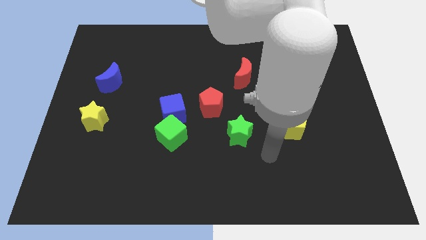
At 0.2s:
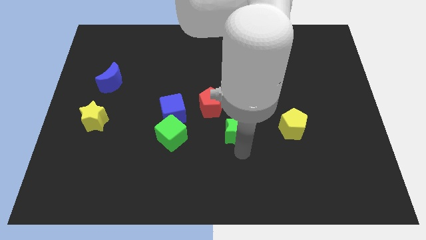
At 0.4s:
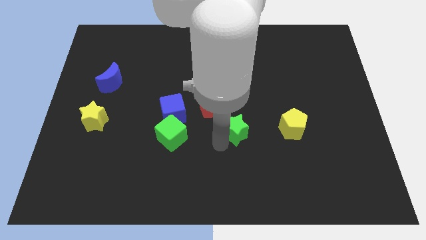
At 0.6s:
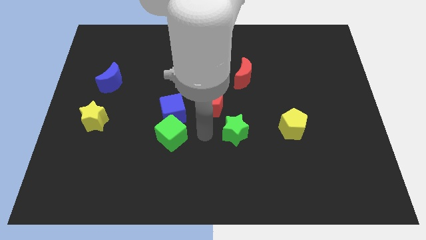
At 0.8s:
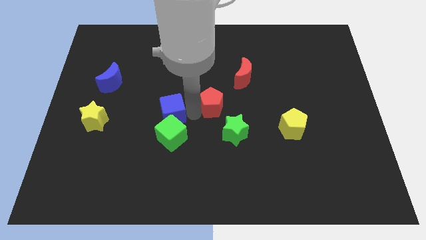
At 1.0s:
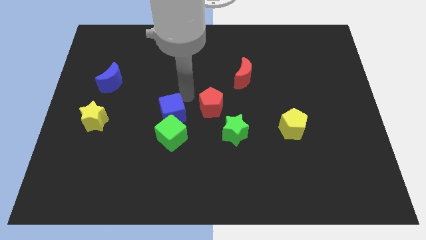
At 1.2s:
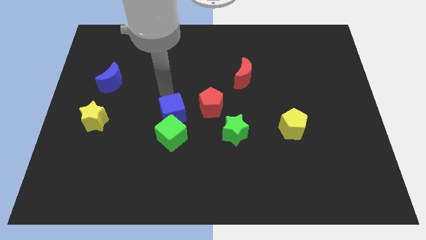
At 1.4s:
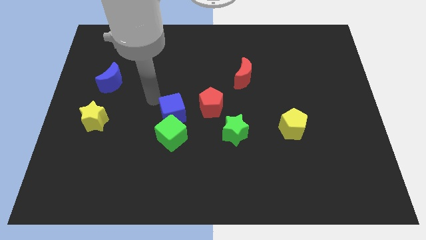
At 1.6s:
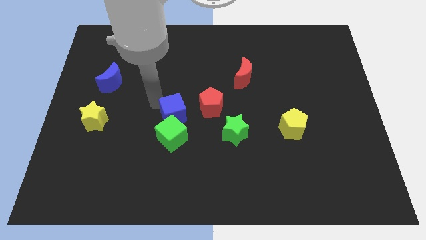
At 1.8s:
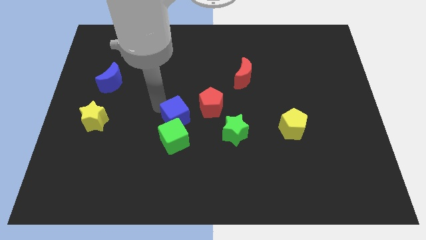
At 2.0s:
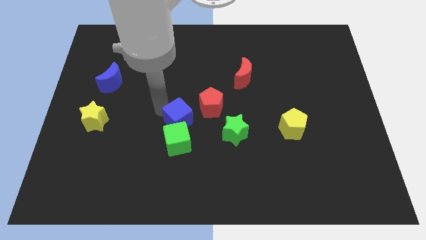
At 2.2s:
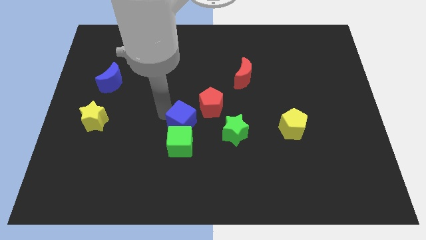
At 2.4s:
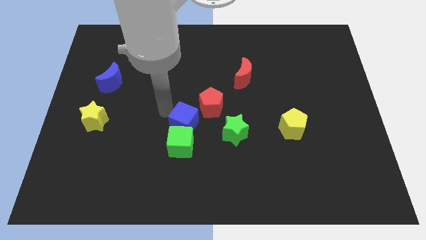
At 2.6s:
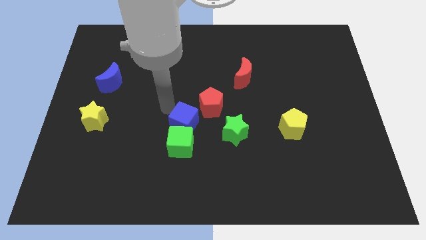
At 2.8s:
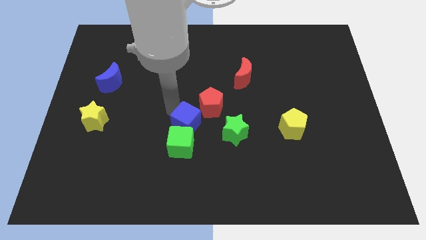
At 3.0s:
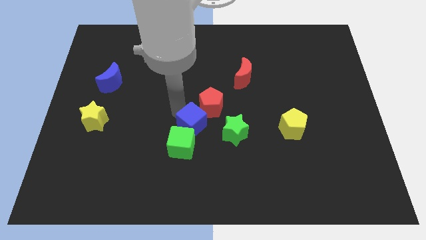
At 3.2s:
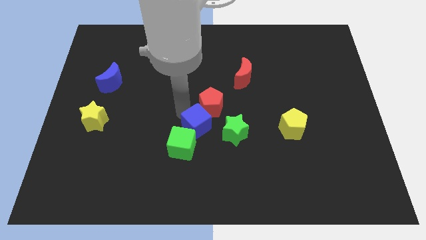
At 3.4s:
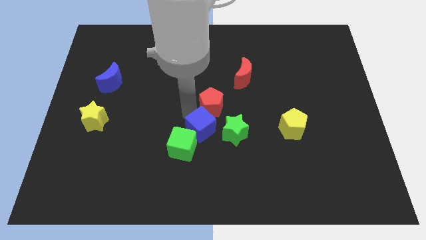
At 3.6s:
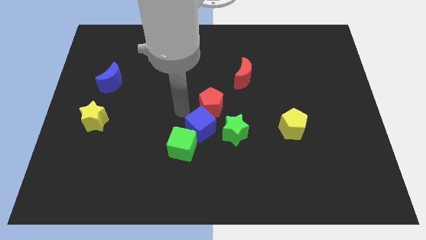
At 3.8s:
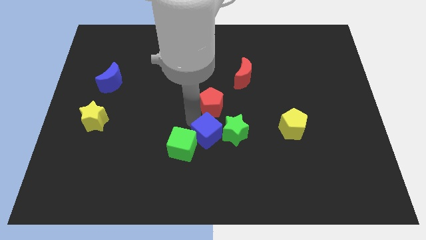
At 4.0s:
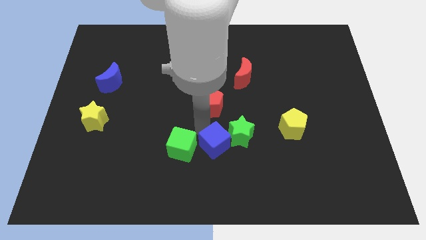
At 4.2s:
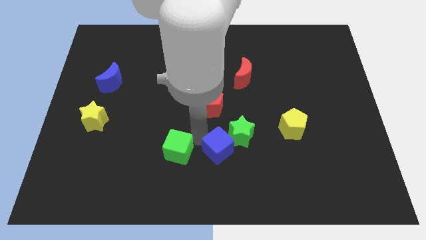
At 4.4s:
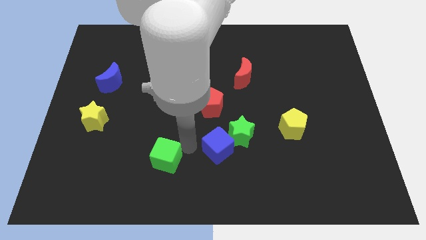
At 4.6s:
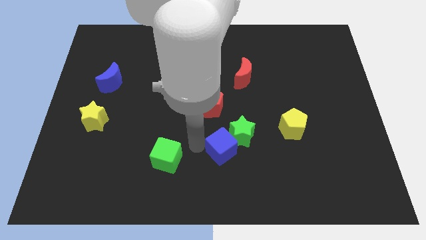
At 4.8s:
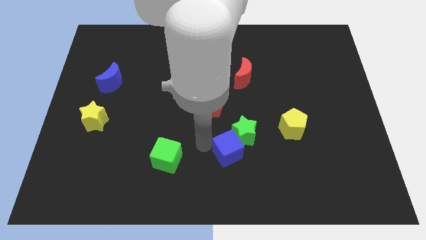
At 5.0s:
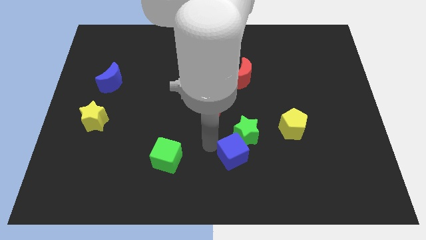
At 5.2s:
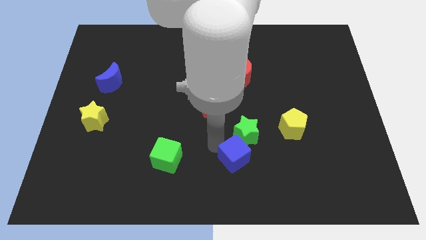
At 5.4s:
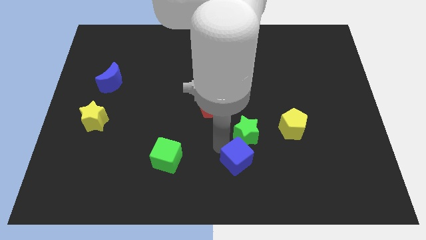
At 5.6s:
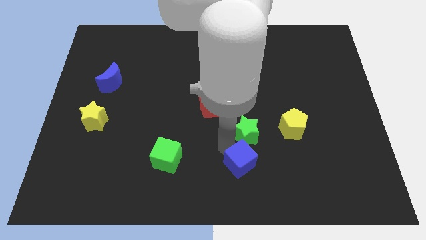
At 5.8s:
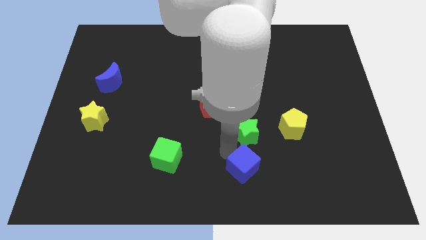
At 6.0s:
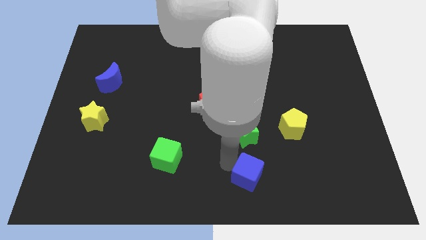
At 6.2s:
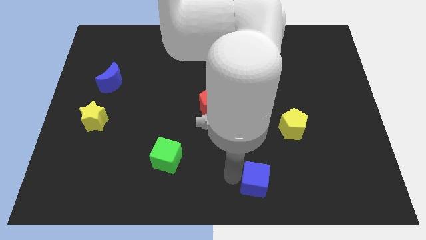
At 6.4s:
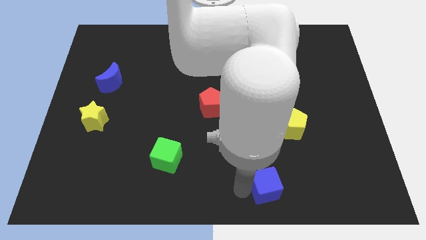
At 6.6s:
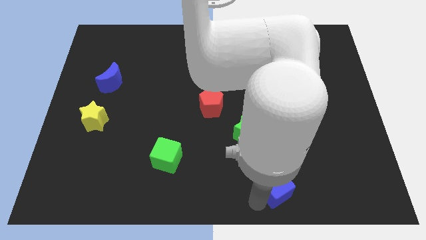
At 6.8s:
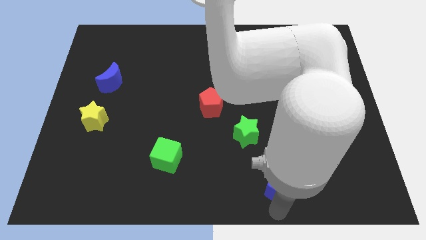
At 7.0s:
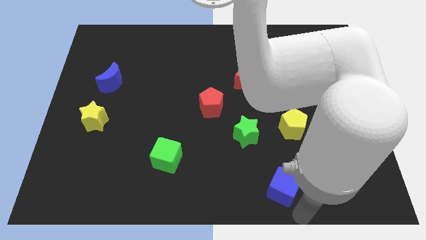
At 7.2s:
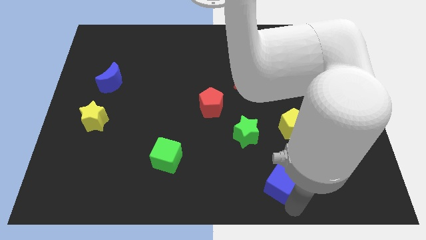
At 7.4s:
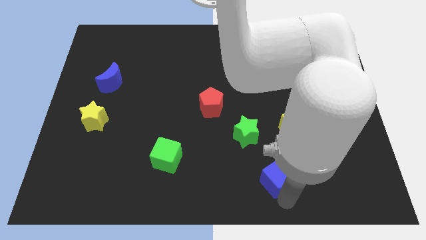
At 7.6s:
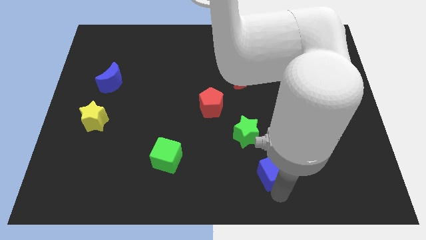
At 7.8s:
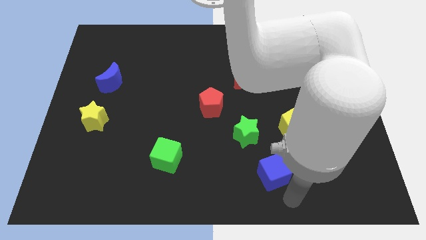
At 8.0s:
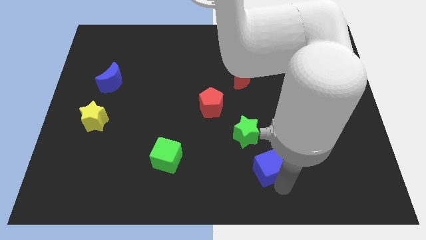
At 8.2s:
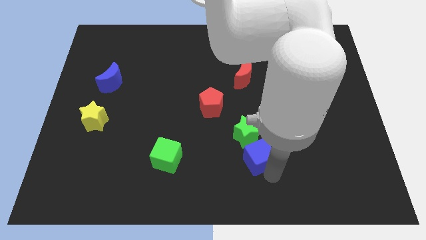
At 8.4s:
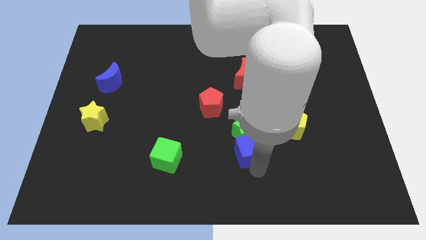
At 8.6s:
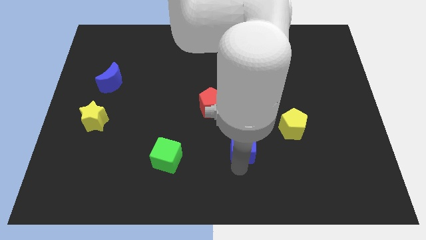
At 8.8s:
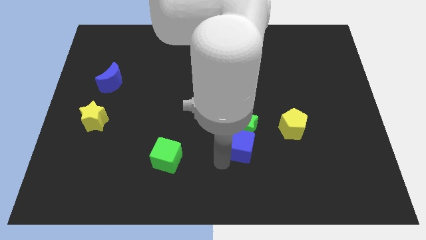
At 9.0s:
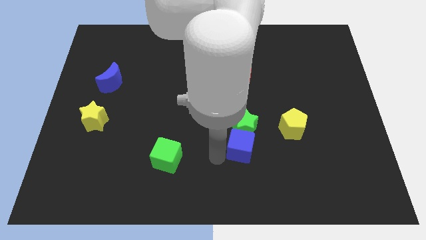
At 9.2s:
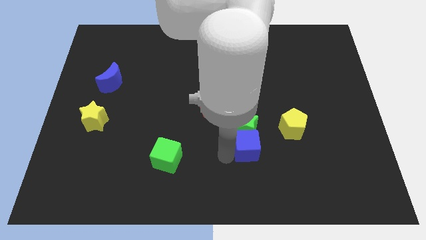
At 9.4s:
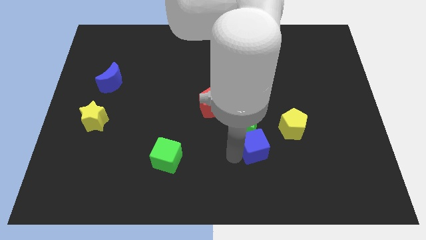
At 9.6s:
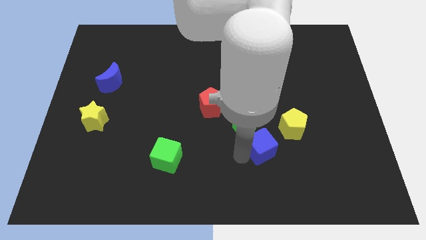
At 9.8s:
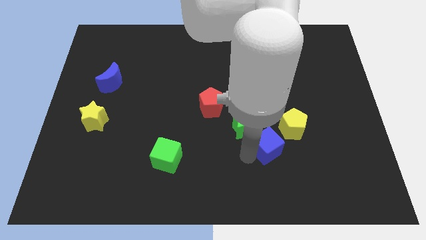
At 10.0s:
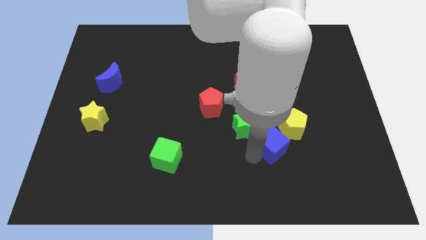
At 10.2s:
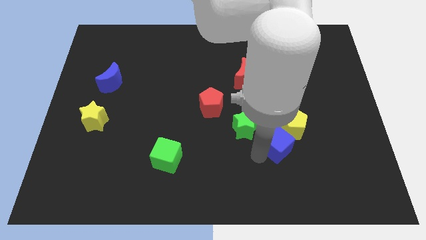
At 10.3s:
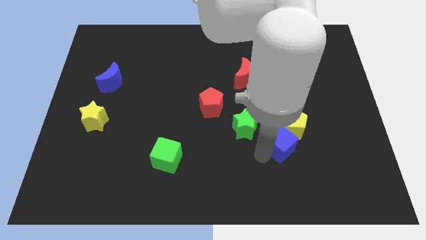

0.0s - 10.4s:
move the blue cube to the yellow pentagon

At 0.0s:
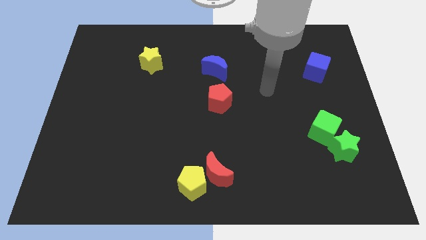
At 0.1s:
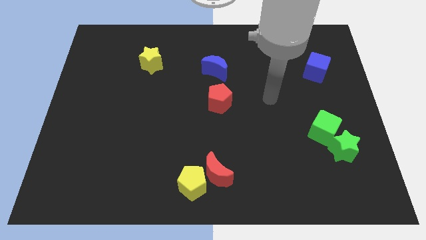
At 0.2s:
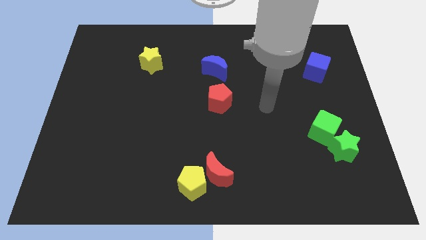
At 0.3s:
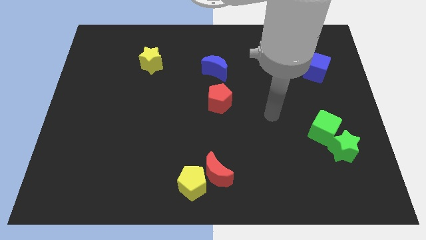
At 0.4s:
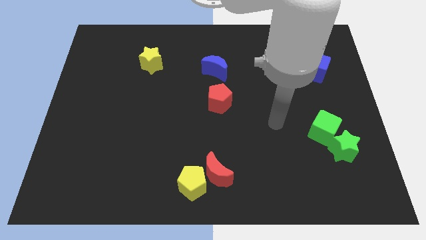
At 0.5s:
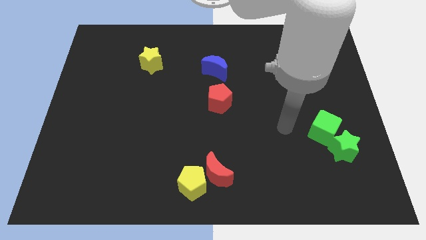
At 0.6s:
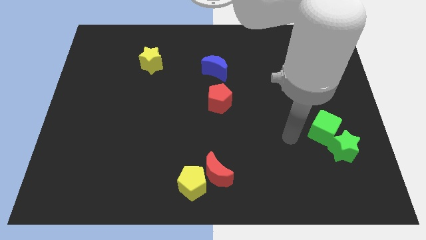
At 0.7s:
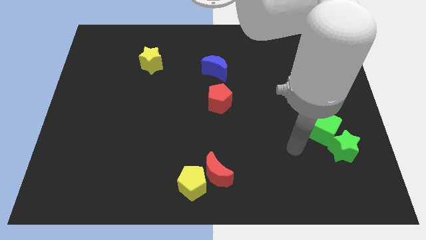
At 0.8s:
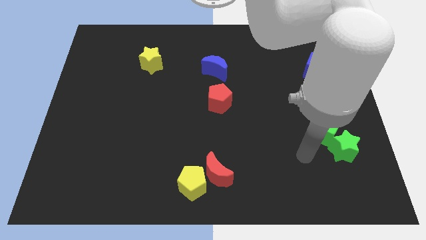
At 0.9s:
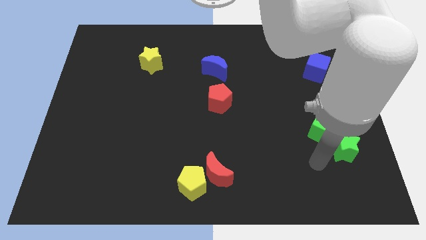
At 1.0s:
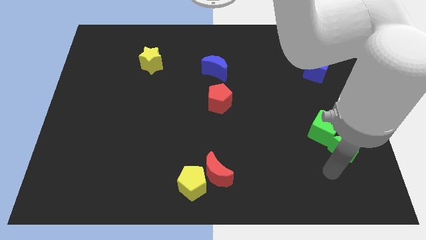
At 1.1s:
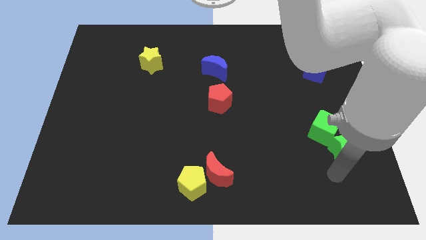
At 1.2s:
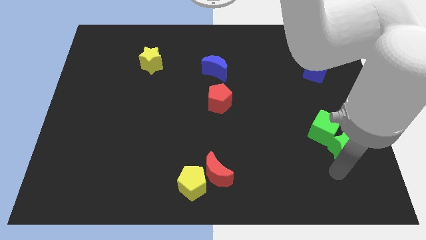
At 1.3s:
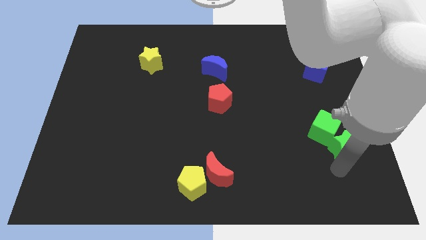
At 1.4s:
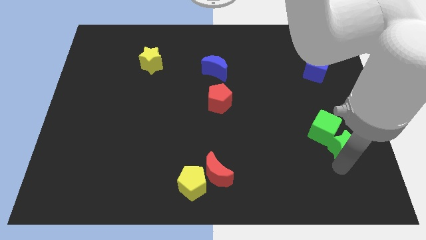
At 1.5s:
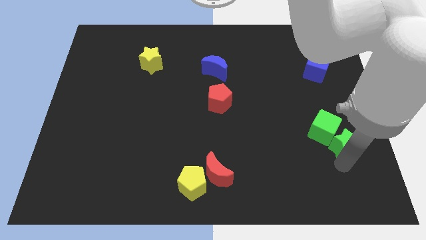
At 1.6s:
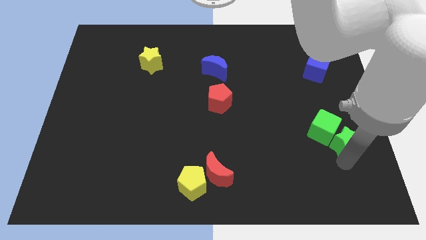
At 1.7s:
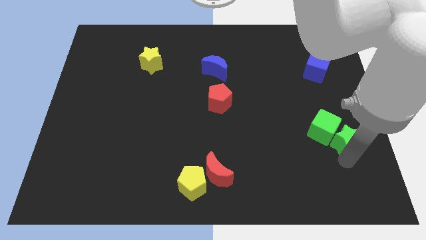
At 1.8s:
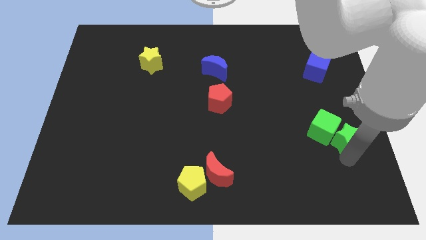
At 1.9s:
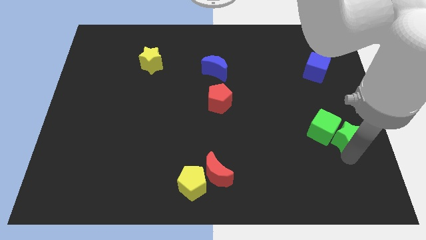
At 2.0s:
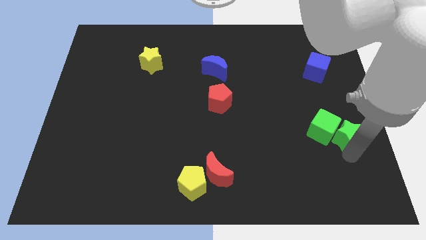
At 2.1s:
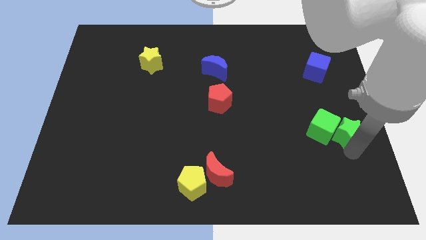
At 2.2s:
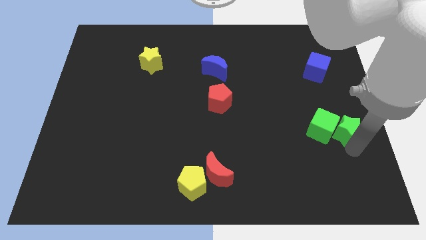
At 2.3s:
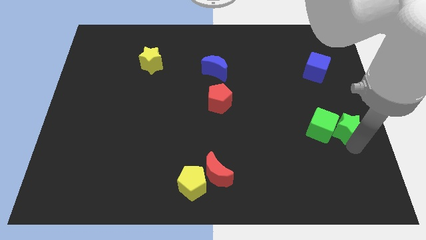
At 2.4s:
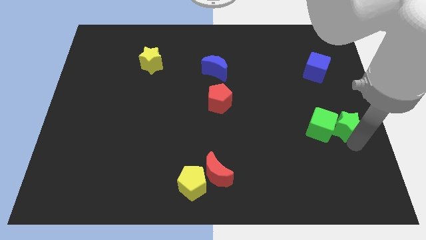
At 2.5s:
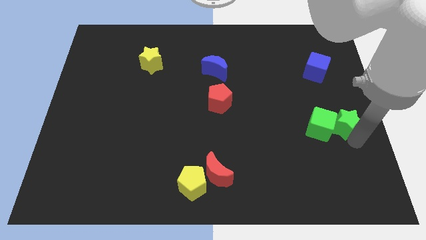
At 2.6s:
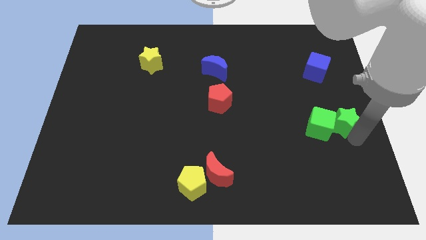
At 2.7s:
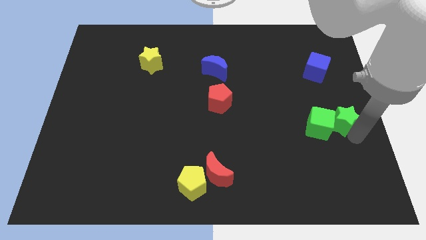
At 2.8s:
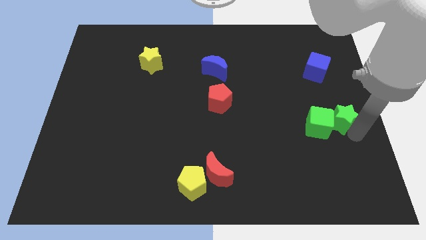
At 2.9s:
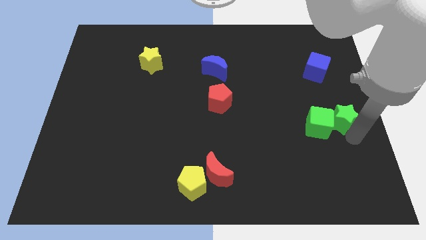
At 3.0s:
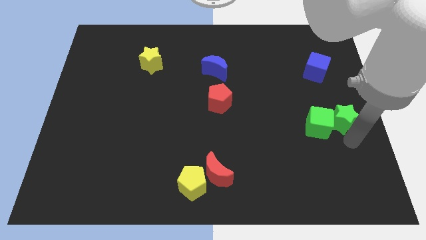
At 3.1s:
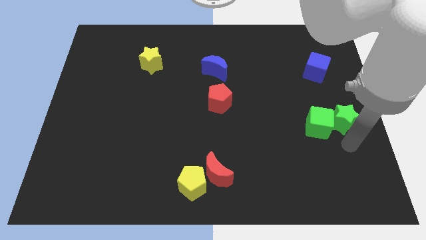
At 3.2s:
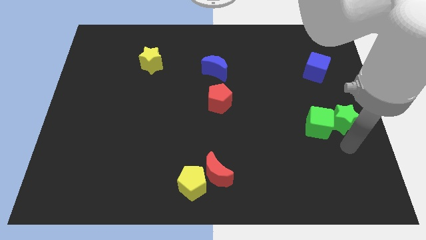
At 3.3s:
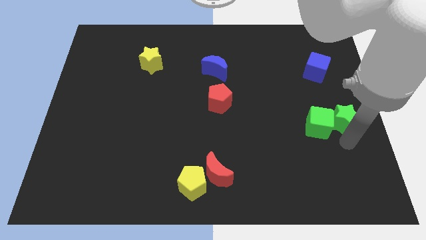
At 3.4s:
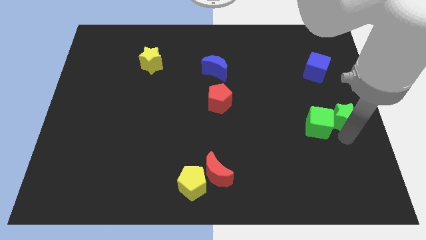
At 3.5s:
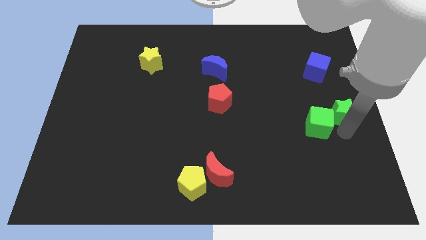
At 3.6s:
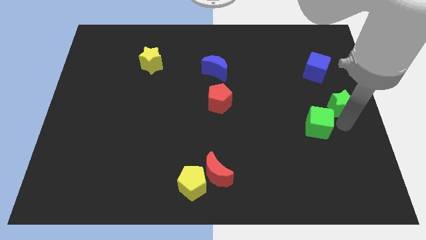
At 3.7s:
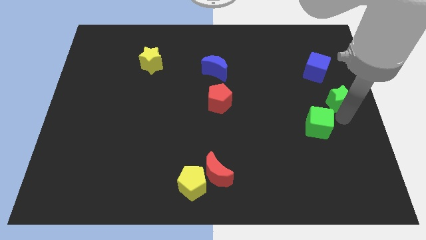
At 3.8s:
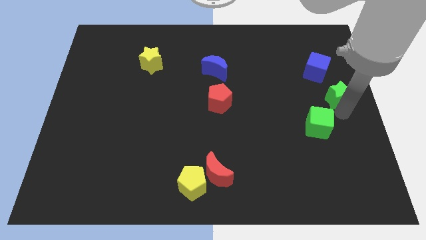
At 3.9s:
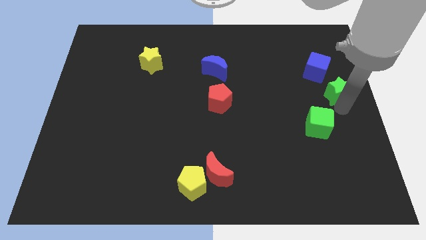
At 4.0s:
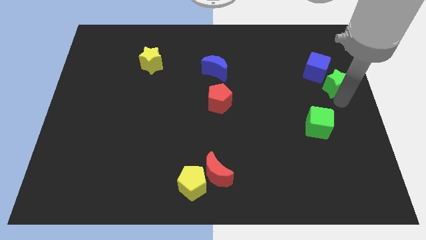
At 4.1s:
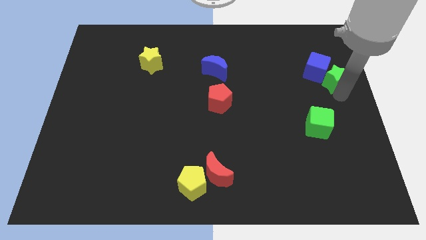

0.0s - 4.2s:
put the green star next to the blue cube
